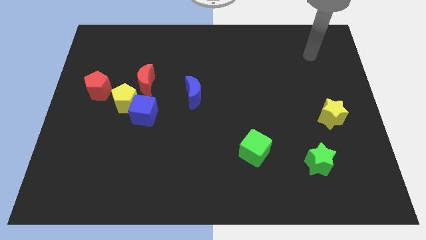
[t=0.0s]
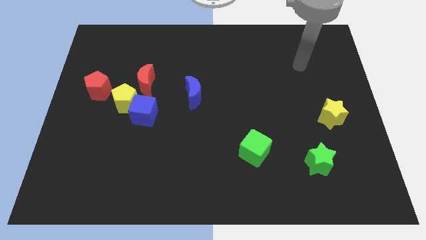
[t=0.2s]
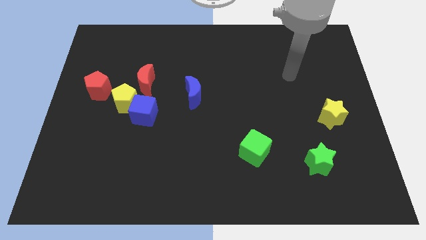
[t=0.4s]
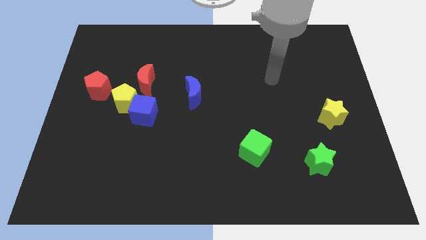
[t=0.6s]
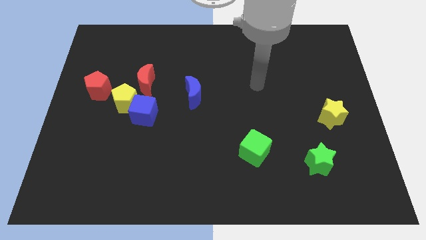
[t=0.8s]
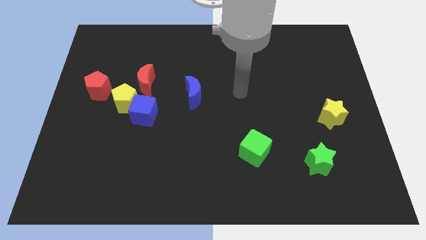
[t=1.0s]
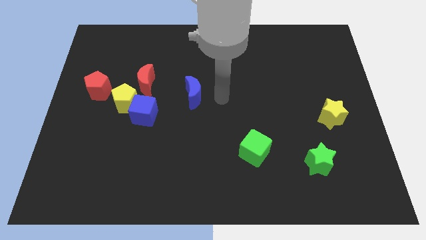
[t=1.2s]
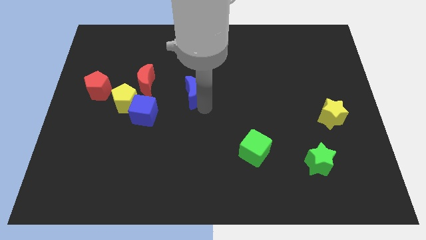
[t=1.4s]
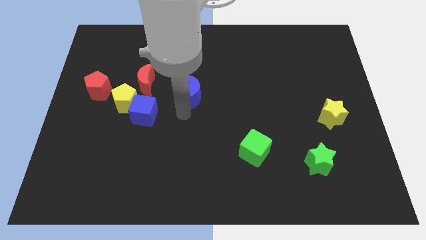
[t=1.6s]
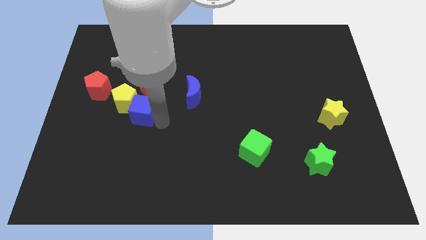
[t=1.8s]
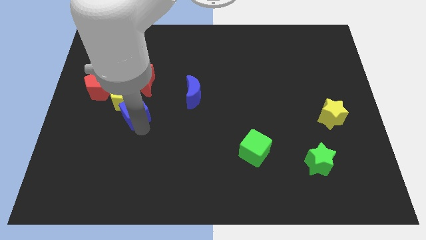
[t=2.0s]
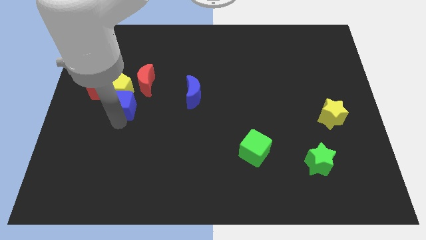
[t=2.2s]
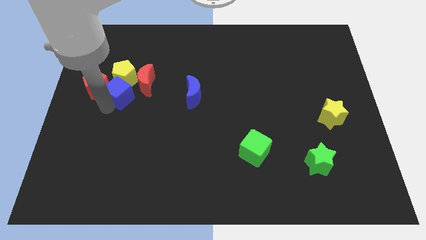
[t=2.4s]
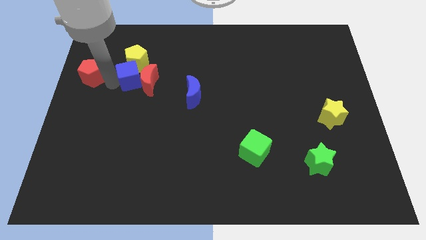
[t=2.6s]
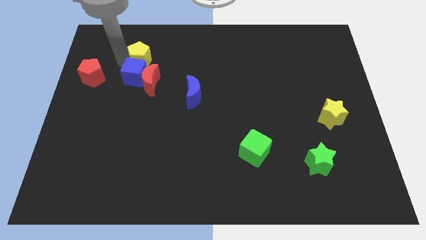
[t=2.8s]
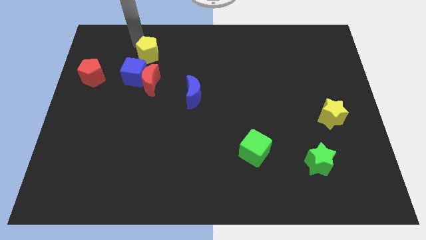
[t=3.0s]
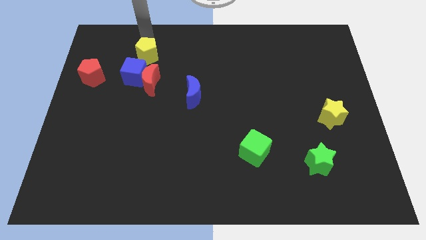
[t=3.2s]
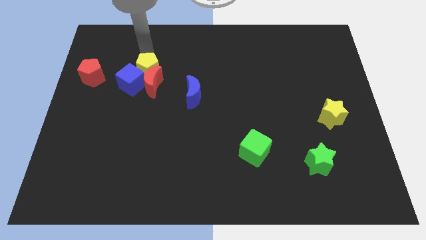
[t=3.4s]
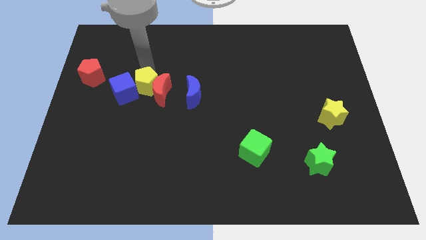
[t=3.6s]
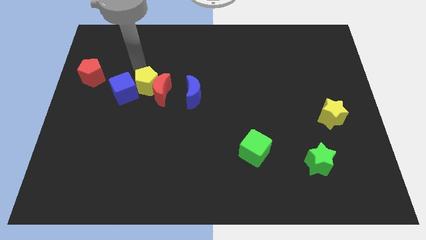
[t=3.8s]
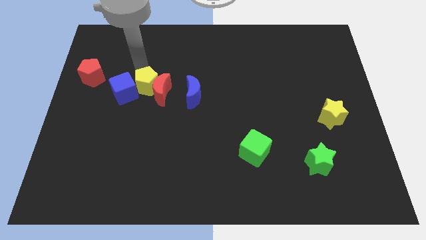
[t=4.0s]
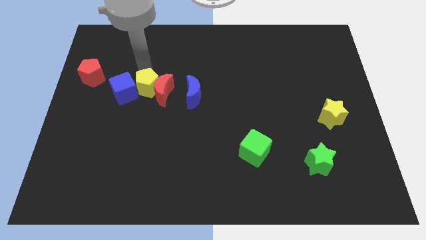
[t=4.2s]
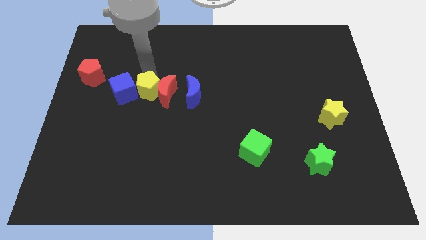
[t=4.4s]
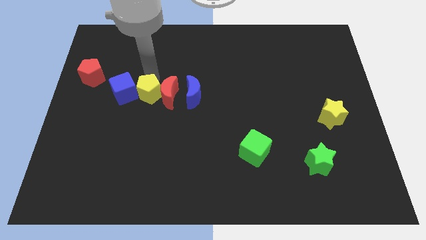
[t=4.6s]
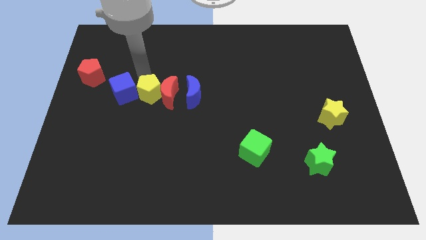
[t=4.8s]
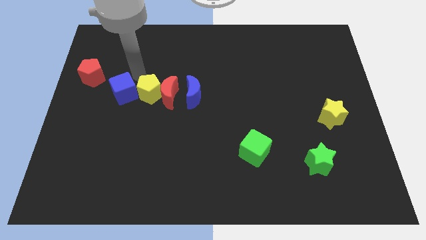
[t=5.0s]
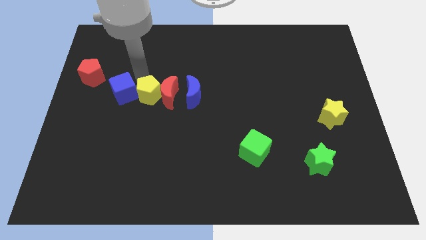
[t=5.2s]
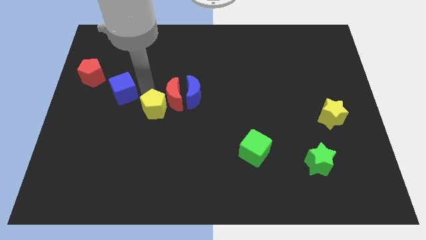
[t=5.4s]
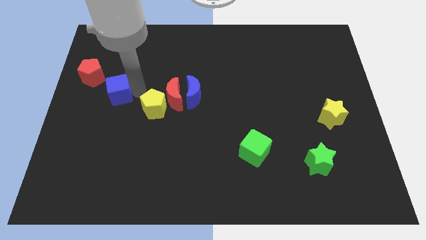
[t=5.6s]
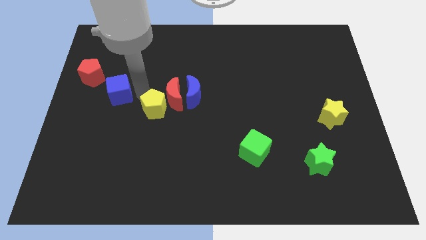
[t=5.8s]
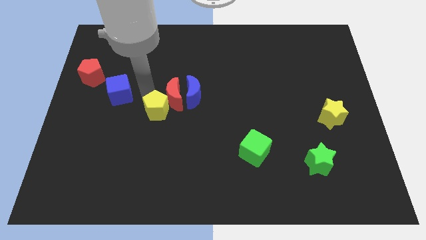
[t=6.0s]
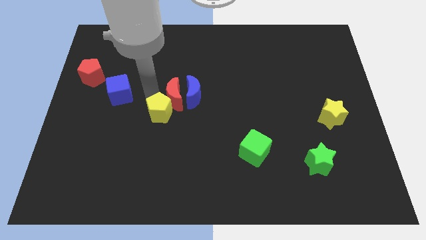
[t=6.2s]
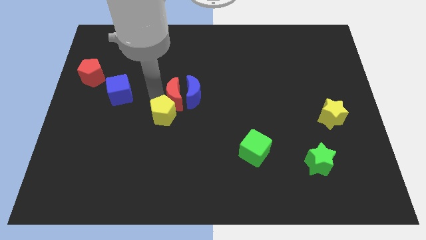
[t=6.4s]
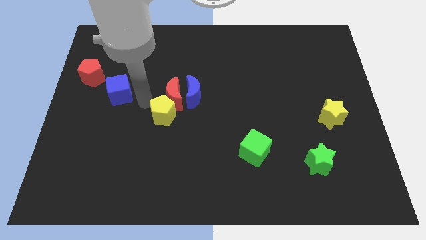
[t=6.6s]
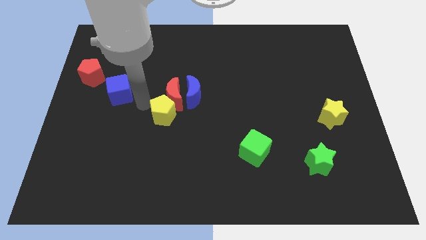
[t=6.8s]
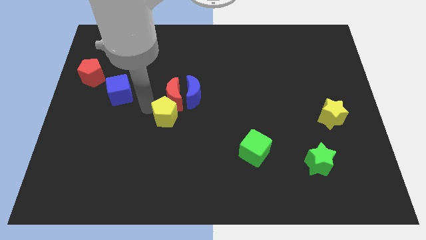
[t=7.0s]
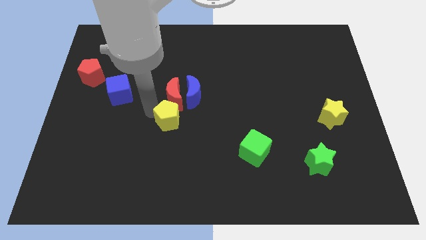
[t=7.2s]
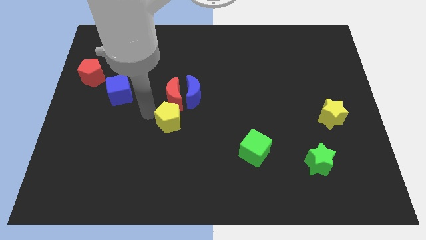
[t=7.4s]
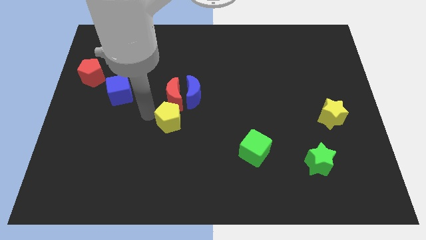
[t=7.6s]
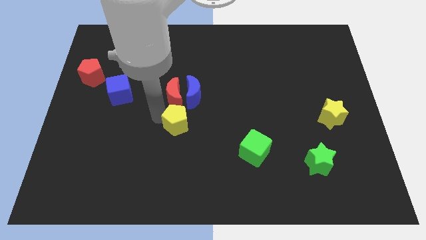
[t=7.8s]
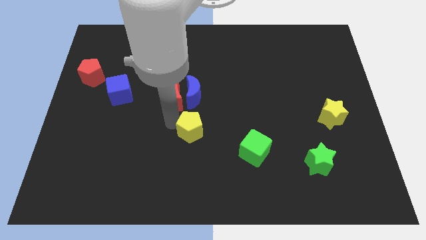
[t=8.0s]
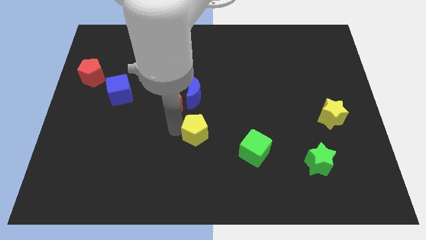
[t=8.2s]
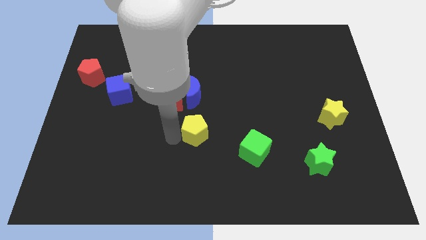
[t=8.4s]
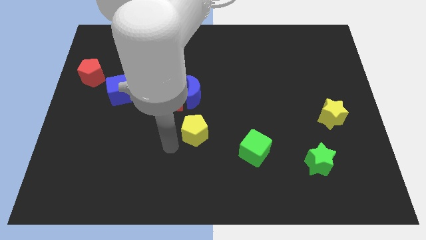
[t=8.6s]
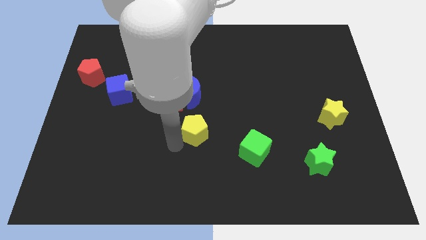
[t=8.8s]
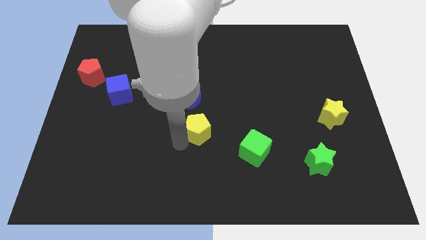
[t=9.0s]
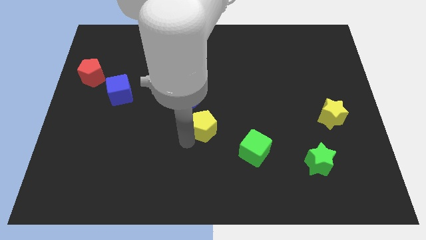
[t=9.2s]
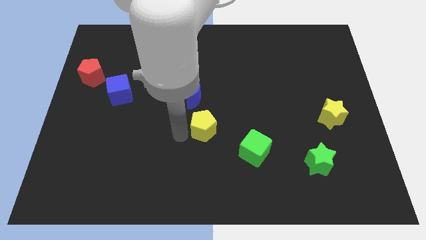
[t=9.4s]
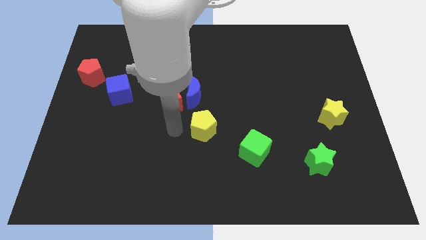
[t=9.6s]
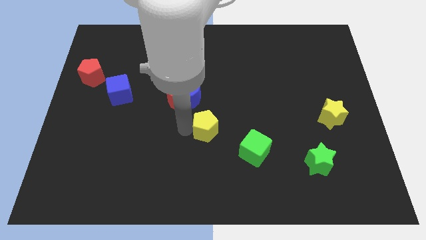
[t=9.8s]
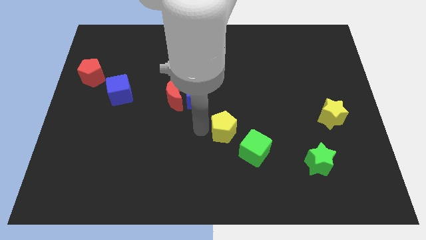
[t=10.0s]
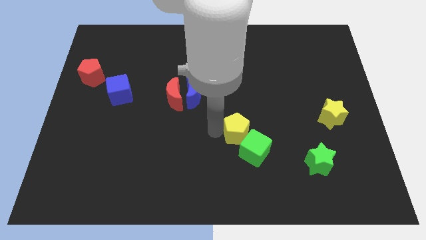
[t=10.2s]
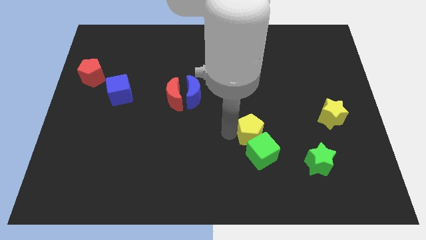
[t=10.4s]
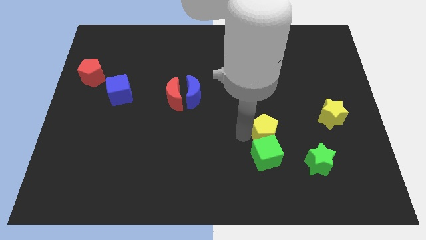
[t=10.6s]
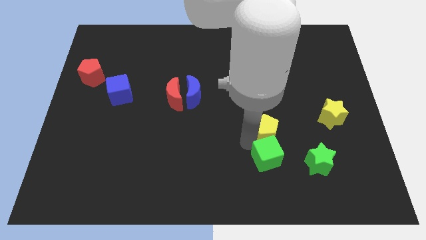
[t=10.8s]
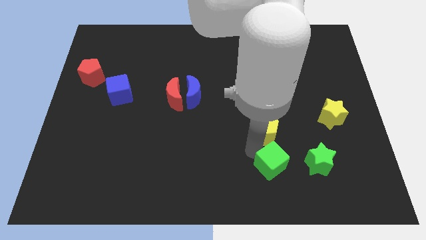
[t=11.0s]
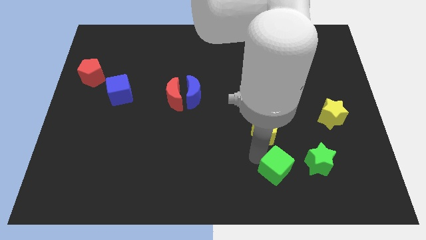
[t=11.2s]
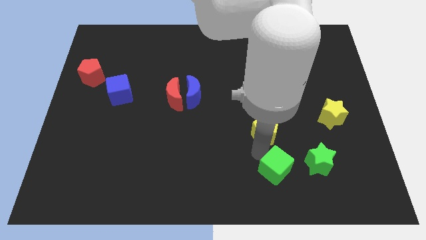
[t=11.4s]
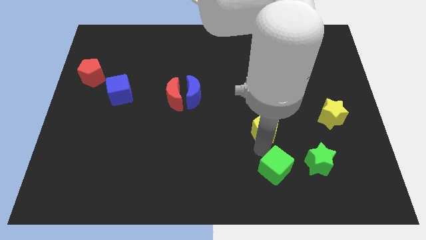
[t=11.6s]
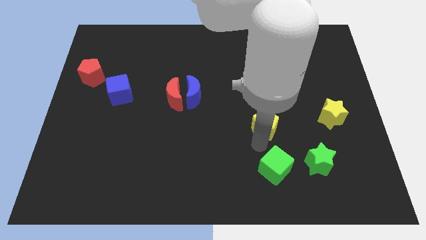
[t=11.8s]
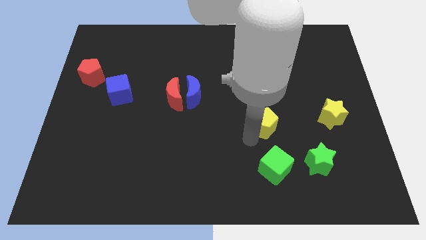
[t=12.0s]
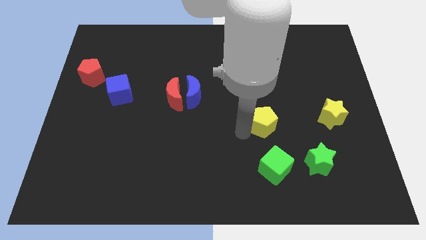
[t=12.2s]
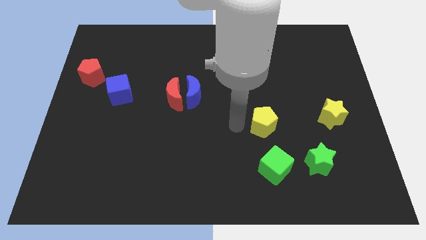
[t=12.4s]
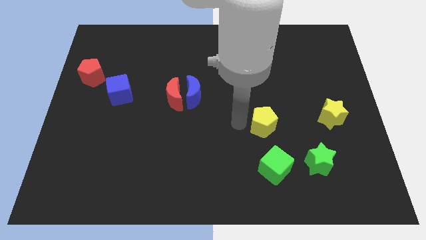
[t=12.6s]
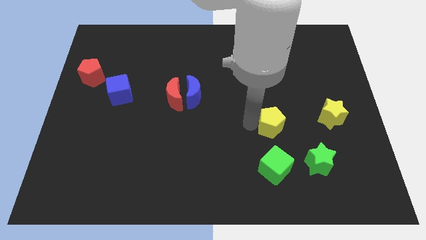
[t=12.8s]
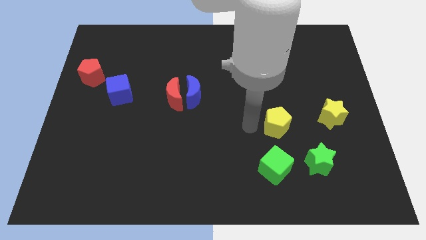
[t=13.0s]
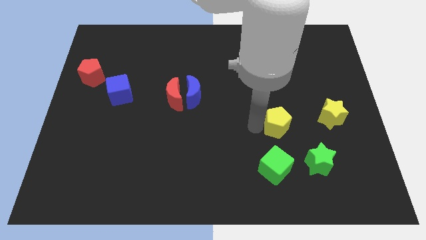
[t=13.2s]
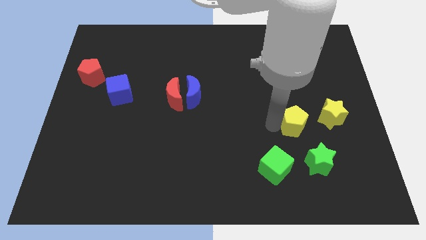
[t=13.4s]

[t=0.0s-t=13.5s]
put the yellow pentagon above the green star

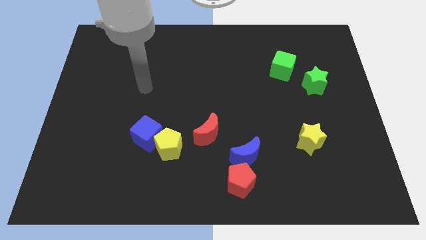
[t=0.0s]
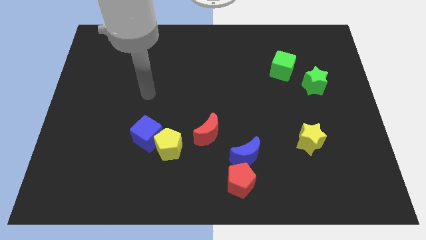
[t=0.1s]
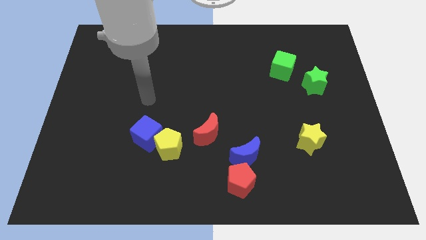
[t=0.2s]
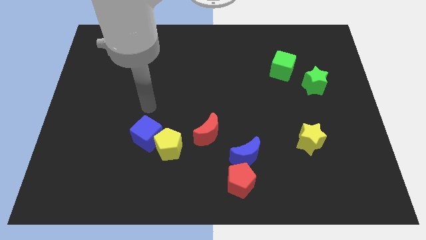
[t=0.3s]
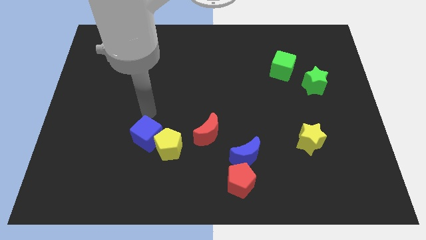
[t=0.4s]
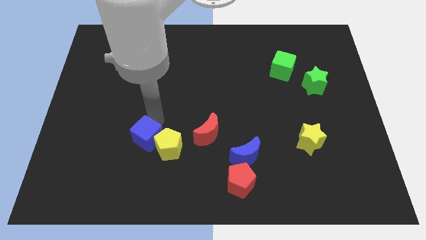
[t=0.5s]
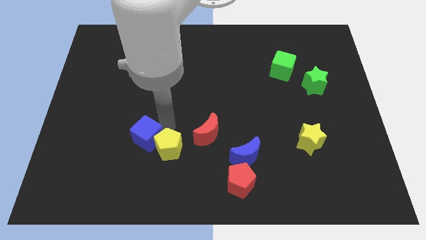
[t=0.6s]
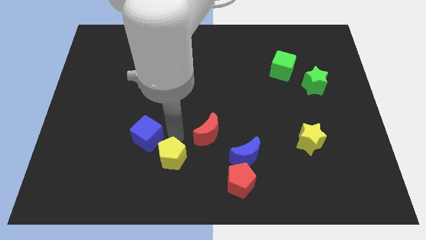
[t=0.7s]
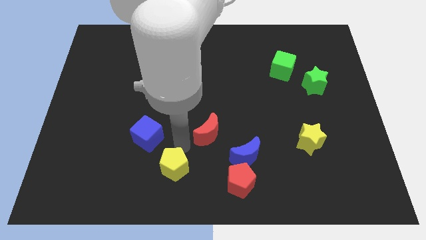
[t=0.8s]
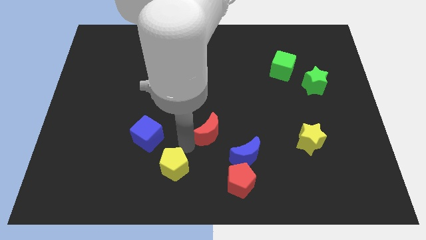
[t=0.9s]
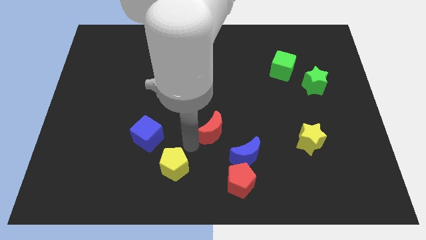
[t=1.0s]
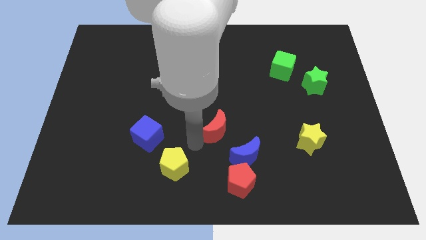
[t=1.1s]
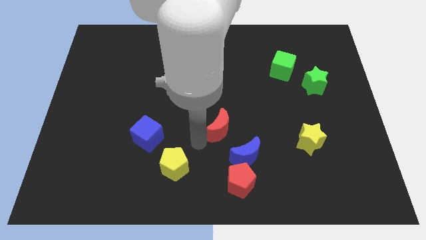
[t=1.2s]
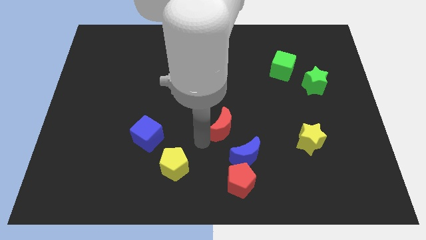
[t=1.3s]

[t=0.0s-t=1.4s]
push the red moon above the blue moon
